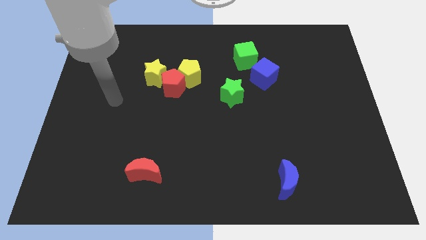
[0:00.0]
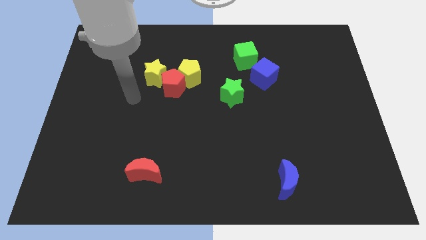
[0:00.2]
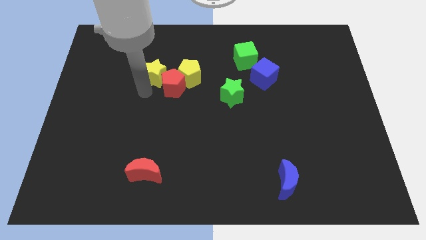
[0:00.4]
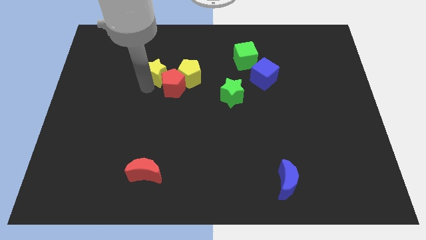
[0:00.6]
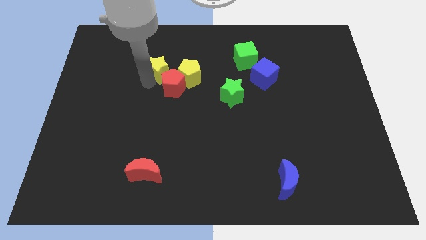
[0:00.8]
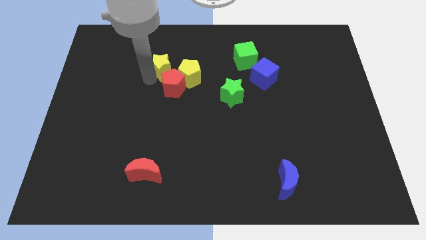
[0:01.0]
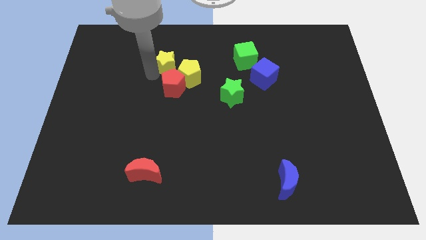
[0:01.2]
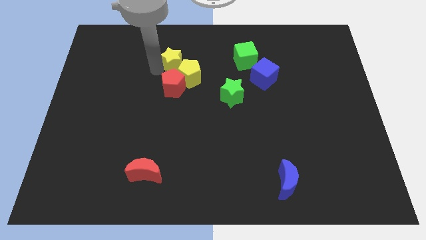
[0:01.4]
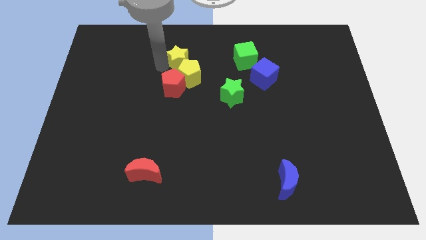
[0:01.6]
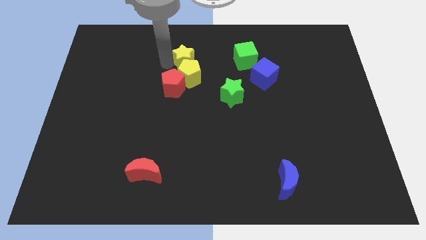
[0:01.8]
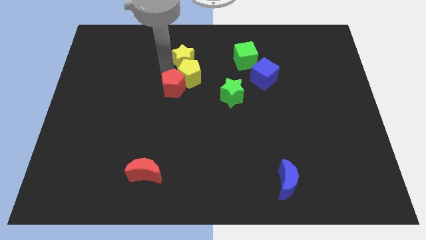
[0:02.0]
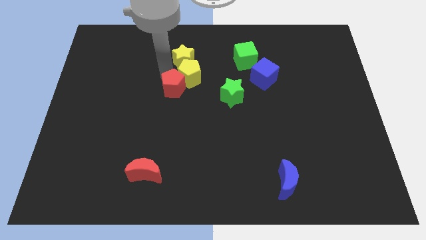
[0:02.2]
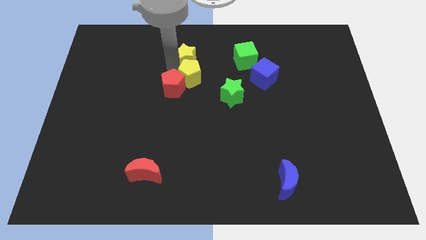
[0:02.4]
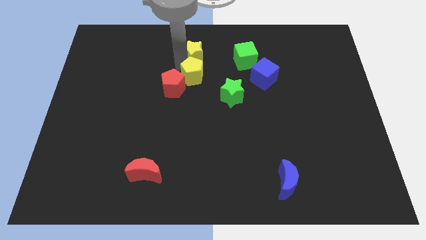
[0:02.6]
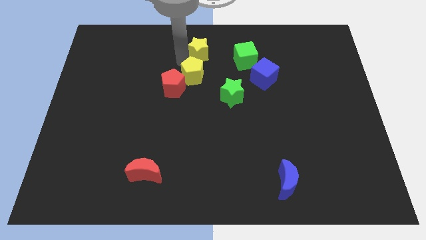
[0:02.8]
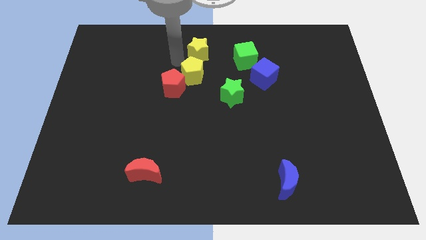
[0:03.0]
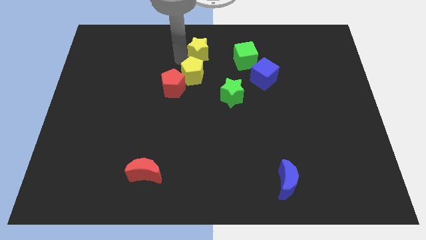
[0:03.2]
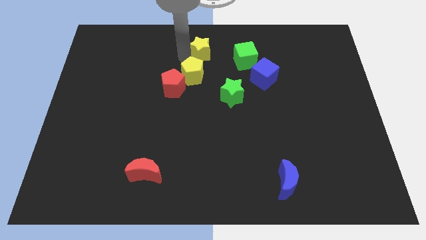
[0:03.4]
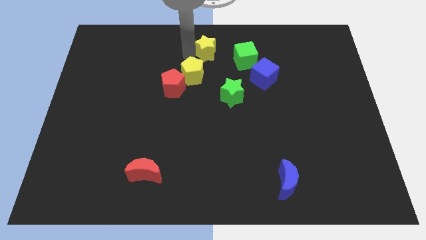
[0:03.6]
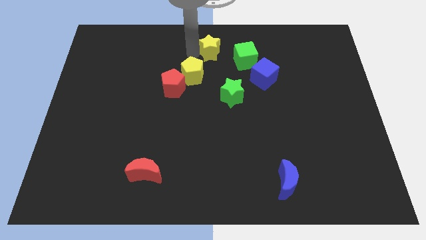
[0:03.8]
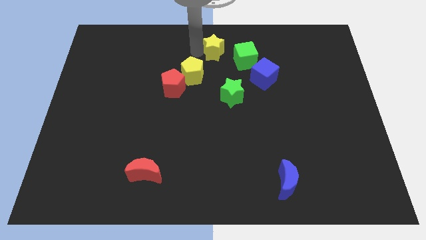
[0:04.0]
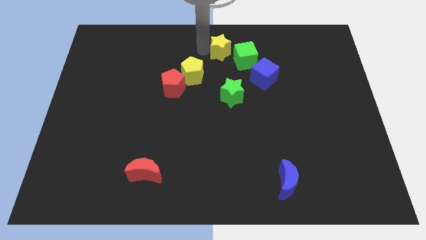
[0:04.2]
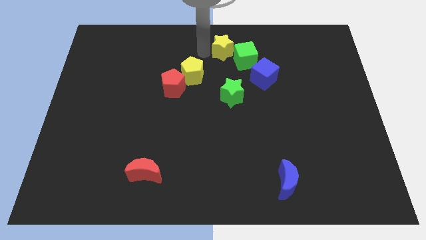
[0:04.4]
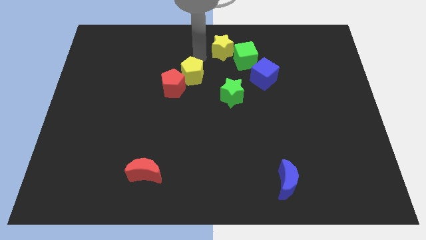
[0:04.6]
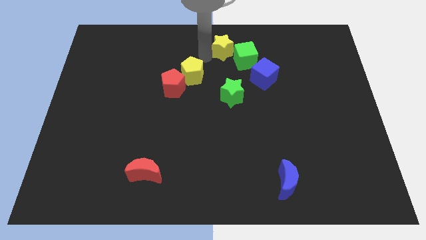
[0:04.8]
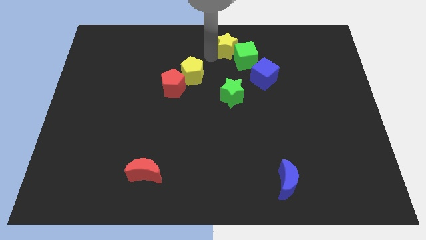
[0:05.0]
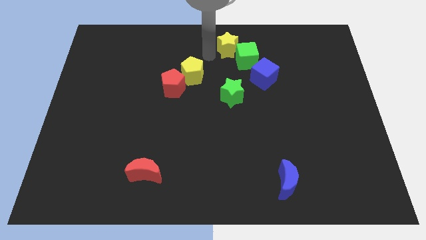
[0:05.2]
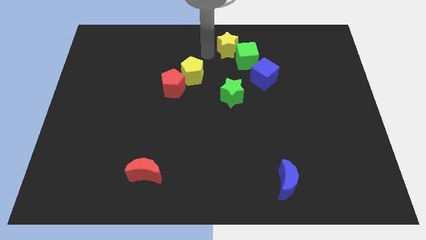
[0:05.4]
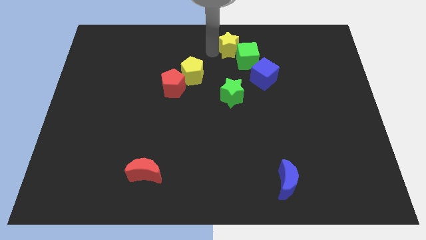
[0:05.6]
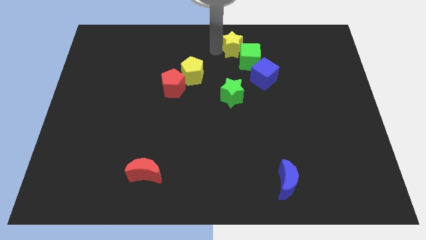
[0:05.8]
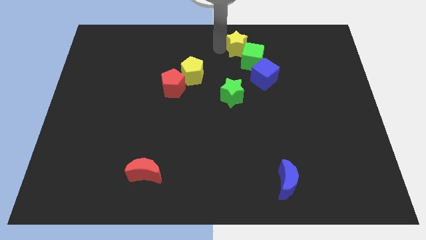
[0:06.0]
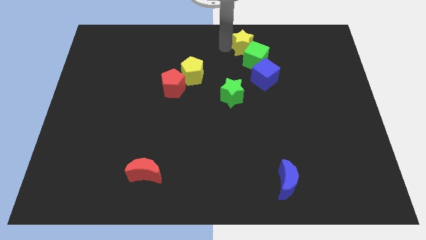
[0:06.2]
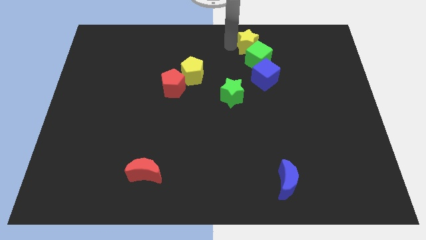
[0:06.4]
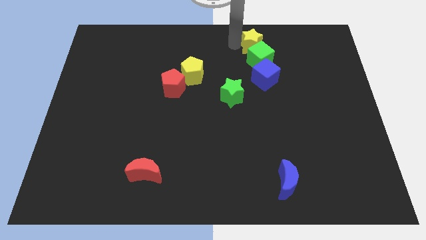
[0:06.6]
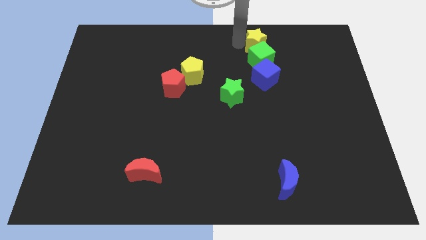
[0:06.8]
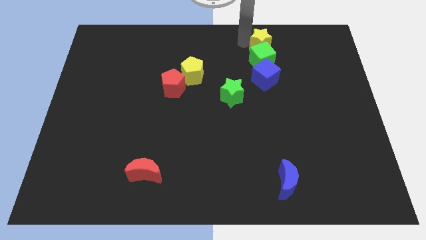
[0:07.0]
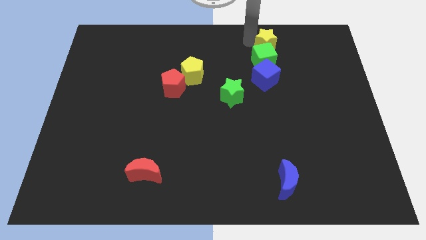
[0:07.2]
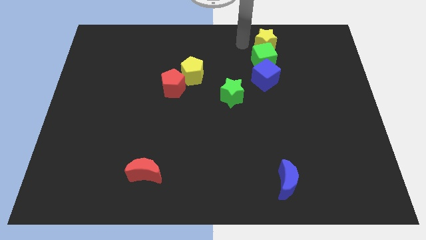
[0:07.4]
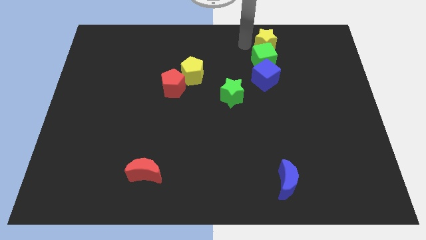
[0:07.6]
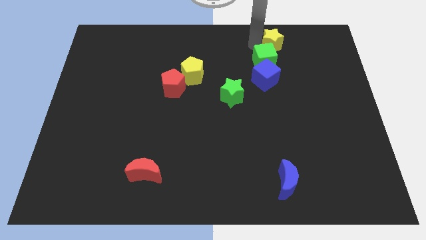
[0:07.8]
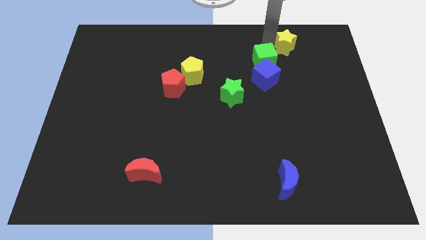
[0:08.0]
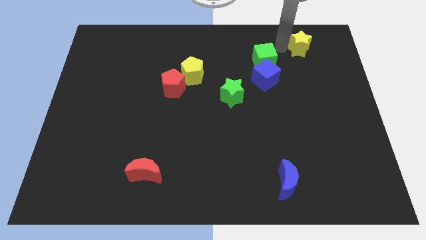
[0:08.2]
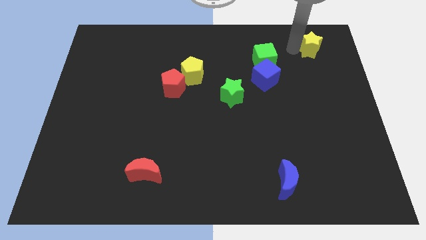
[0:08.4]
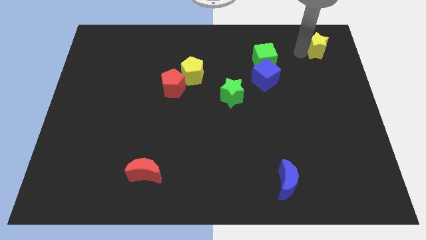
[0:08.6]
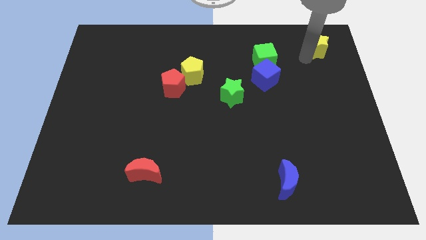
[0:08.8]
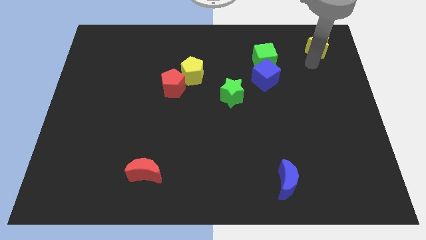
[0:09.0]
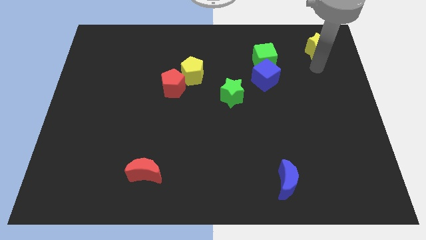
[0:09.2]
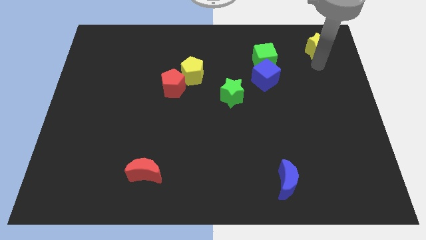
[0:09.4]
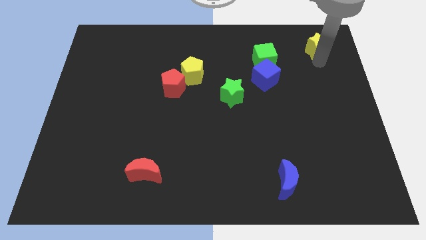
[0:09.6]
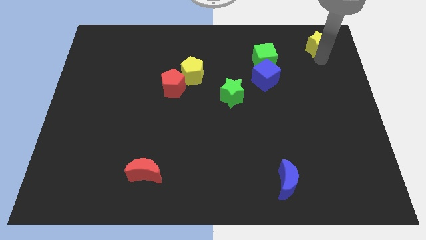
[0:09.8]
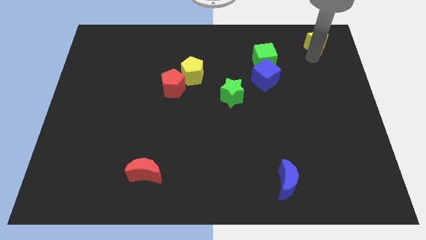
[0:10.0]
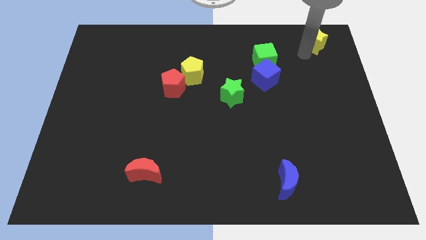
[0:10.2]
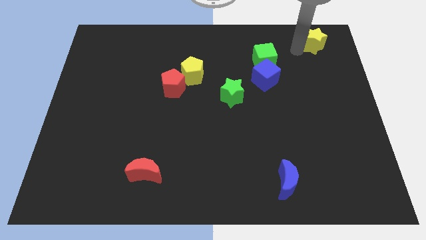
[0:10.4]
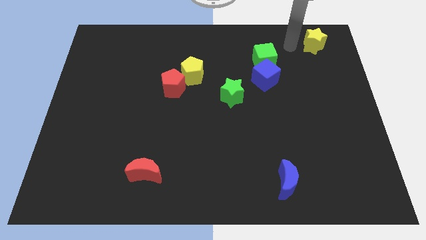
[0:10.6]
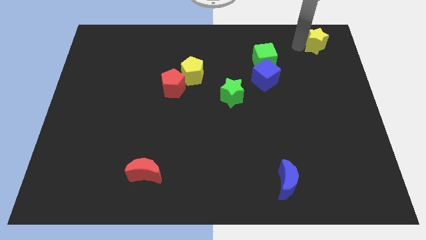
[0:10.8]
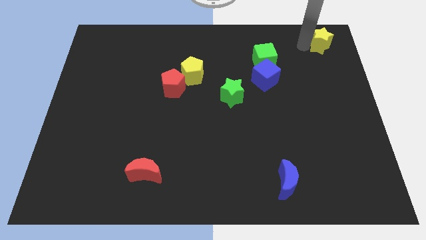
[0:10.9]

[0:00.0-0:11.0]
push the yellow star to the upper right corner
